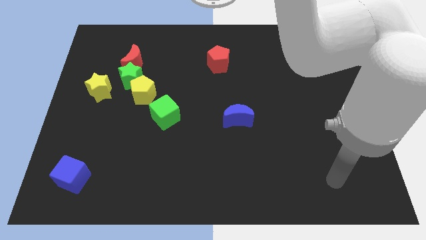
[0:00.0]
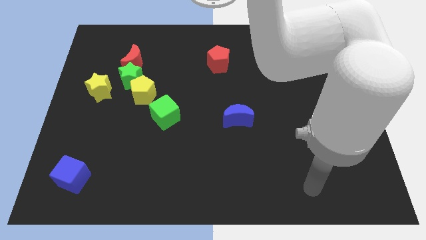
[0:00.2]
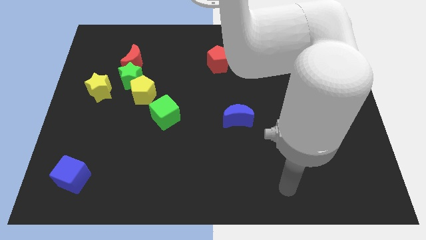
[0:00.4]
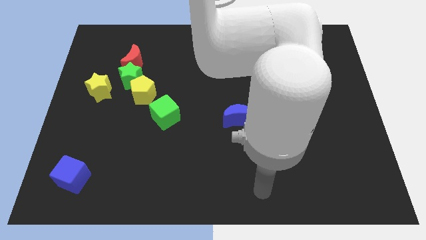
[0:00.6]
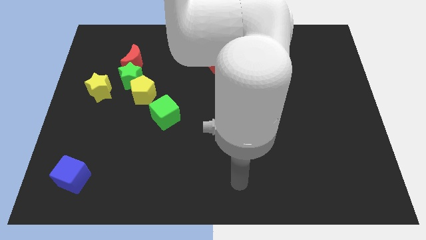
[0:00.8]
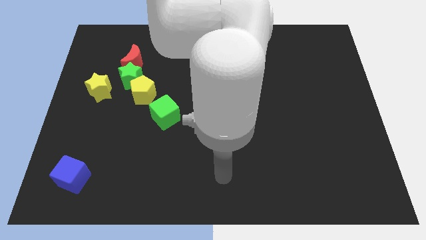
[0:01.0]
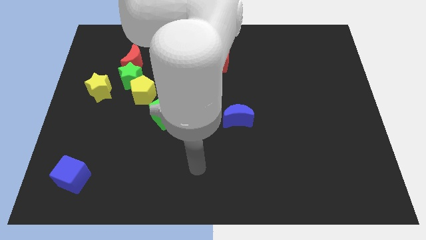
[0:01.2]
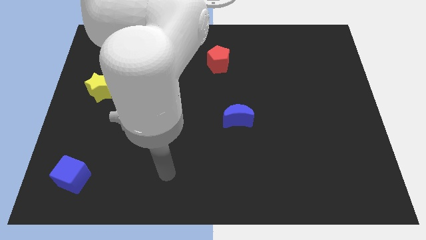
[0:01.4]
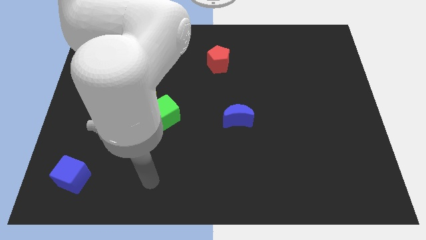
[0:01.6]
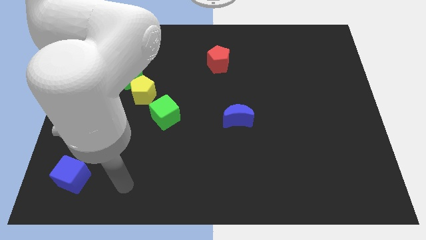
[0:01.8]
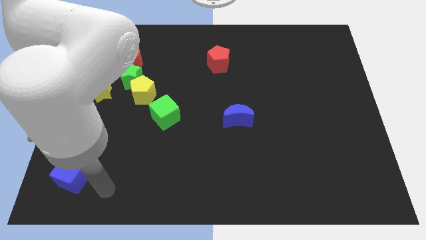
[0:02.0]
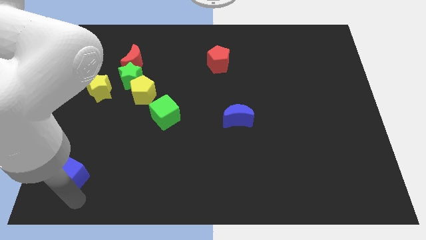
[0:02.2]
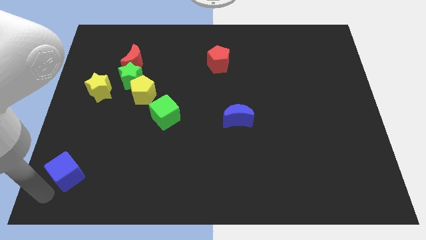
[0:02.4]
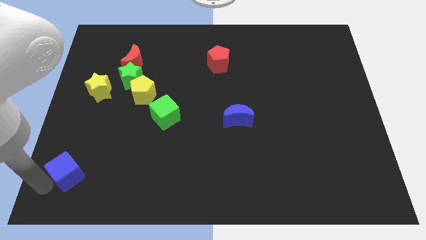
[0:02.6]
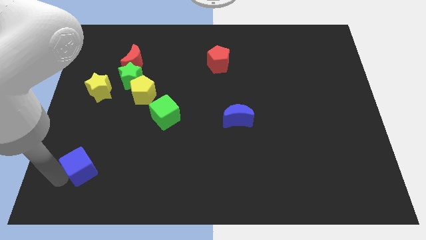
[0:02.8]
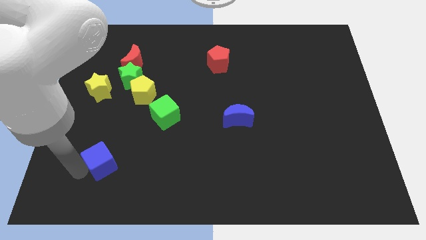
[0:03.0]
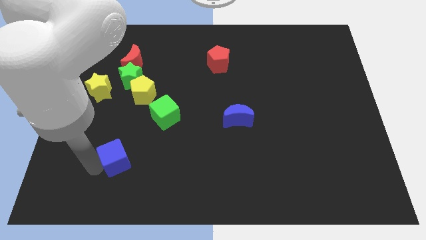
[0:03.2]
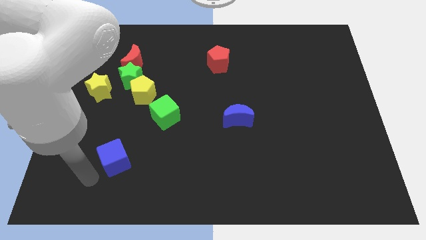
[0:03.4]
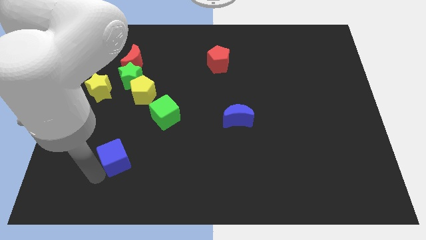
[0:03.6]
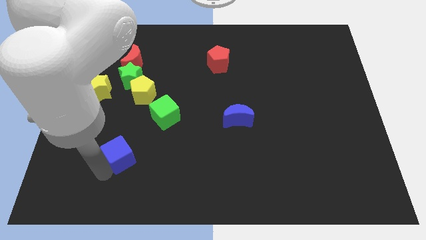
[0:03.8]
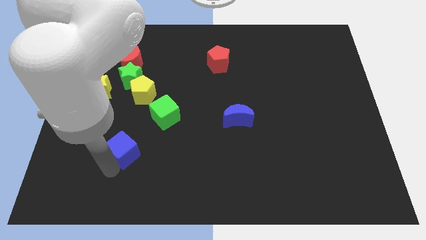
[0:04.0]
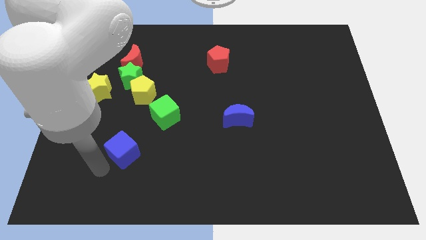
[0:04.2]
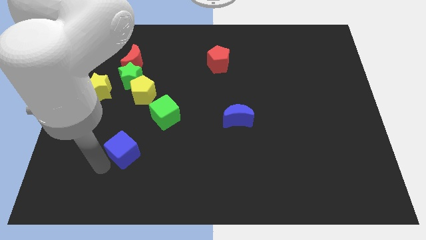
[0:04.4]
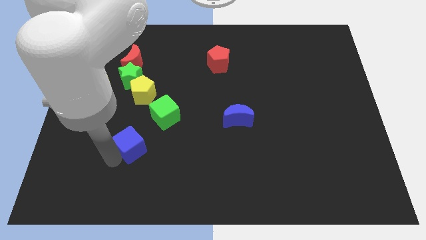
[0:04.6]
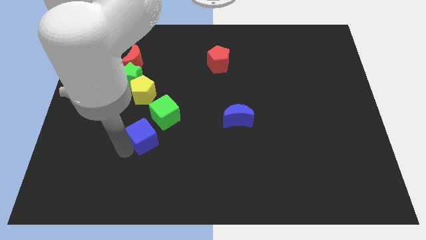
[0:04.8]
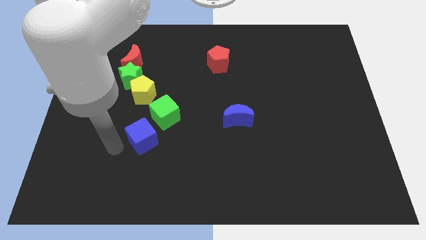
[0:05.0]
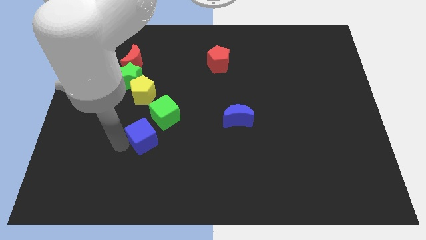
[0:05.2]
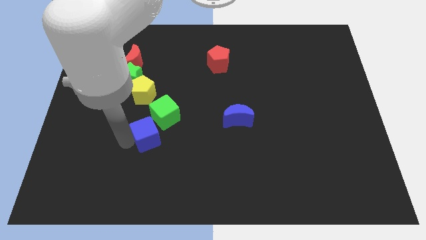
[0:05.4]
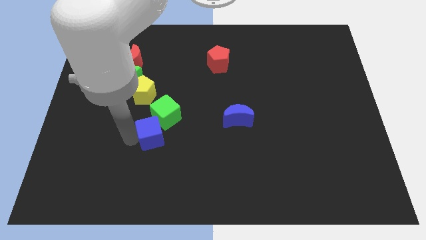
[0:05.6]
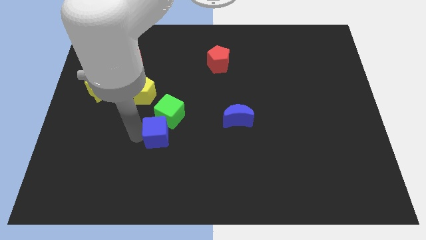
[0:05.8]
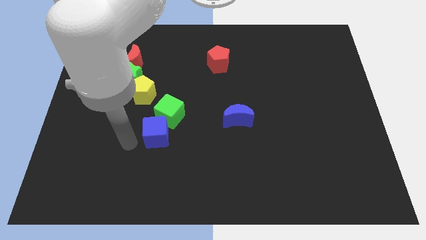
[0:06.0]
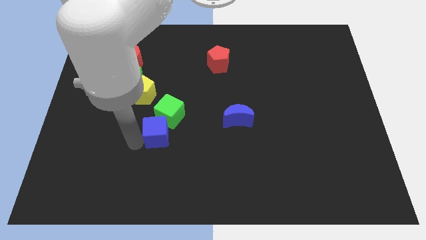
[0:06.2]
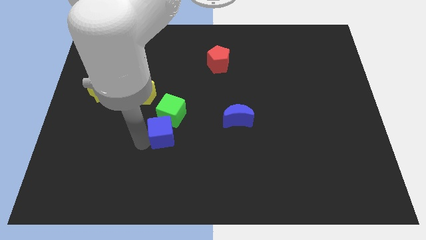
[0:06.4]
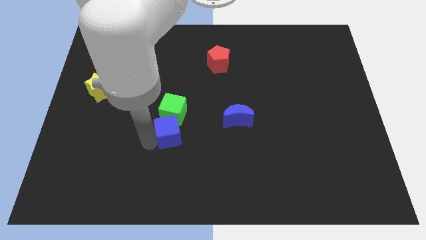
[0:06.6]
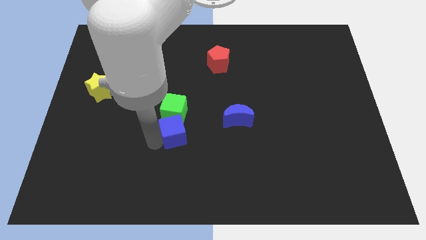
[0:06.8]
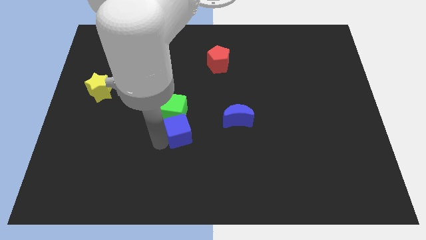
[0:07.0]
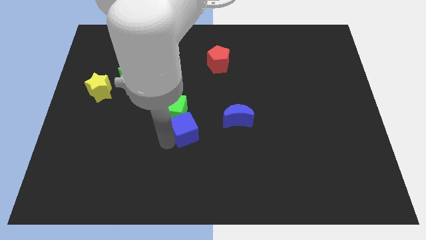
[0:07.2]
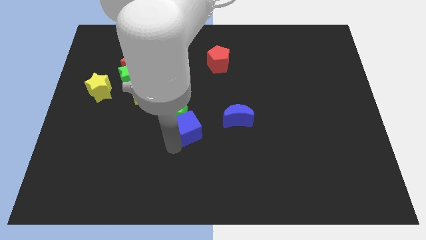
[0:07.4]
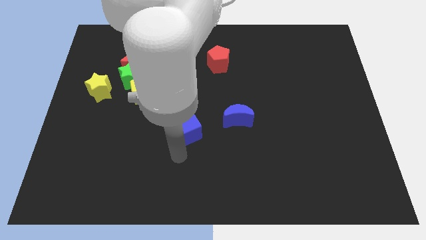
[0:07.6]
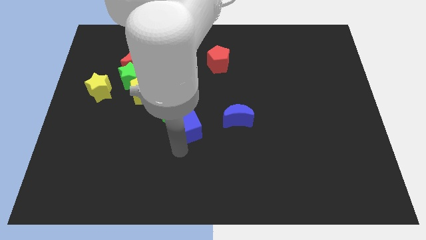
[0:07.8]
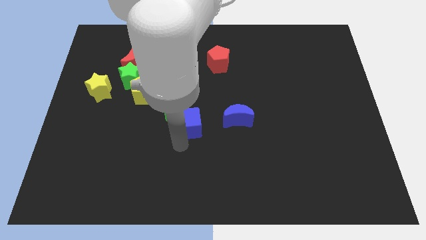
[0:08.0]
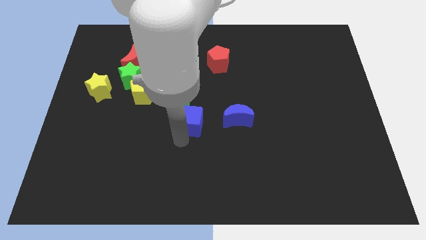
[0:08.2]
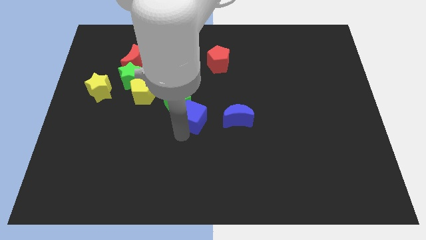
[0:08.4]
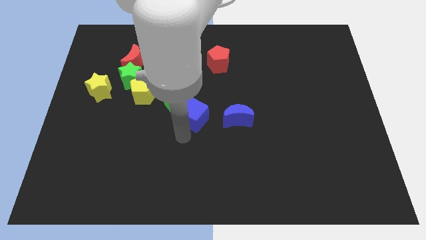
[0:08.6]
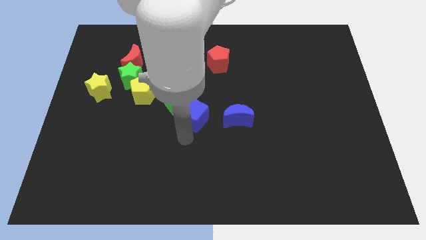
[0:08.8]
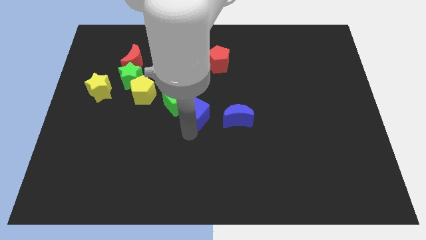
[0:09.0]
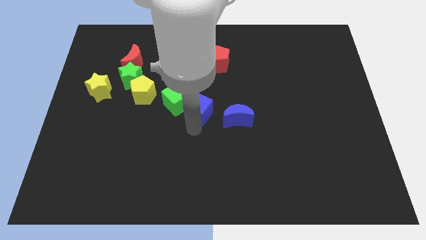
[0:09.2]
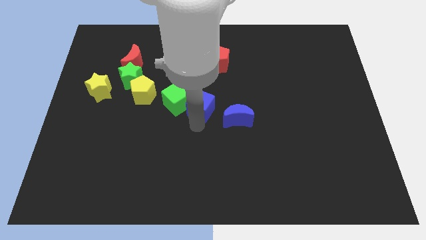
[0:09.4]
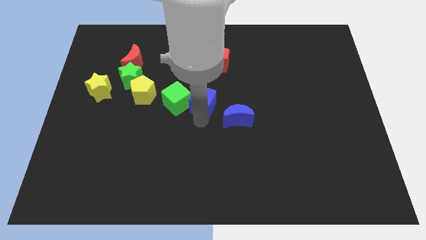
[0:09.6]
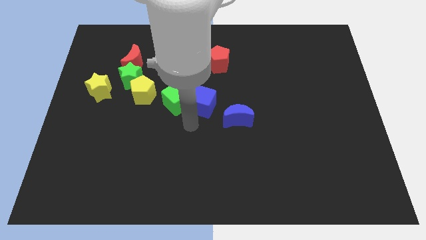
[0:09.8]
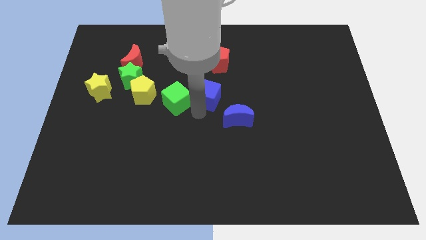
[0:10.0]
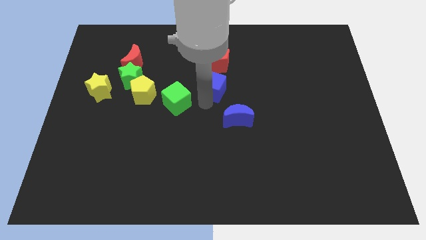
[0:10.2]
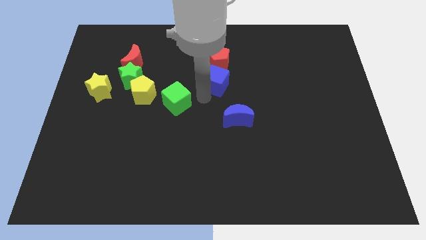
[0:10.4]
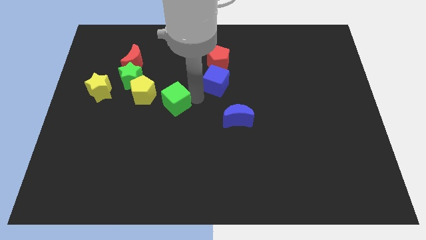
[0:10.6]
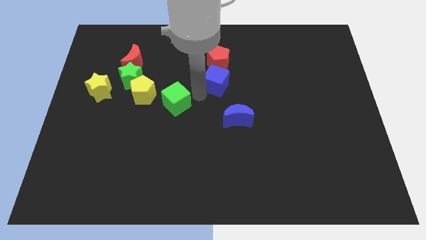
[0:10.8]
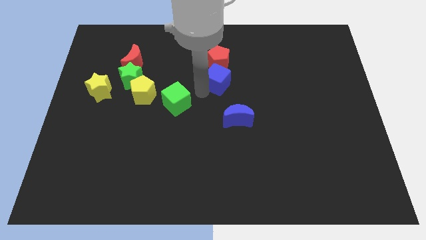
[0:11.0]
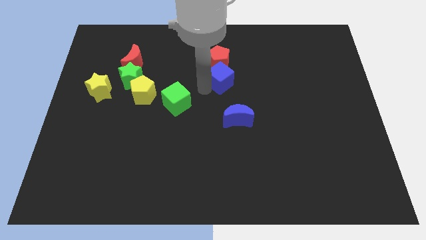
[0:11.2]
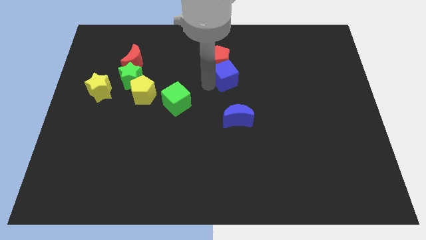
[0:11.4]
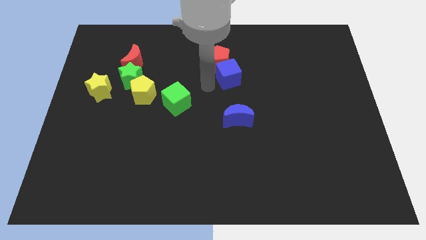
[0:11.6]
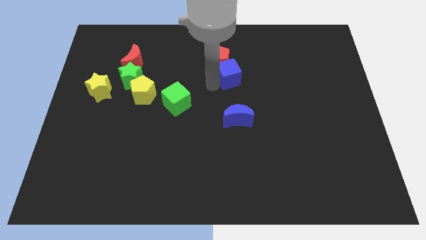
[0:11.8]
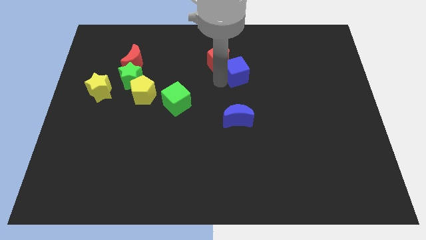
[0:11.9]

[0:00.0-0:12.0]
push the blue cube to the right side of the red pentagon

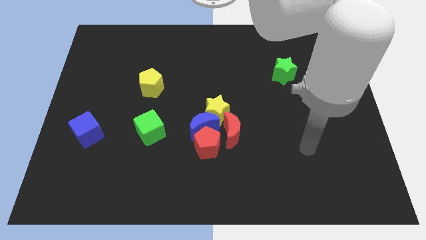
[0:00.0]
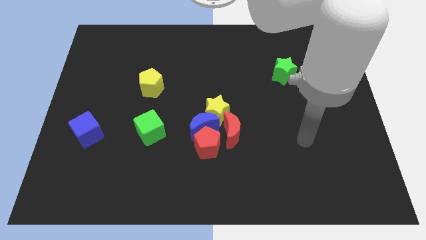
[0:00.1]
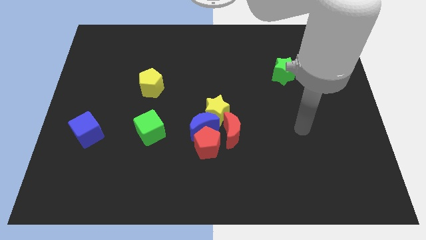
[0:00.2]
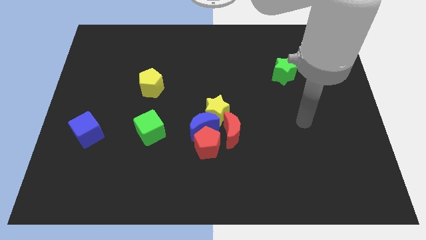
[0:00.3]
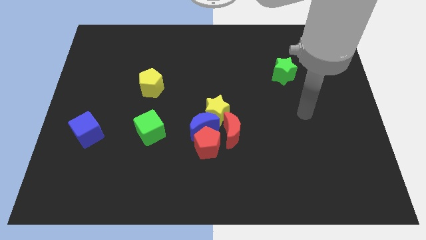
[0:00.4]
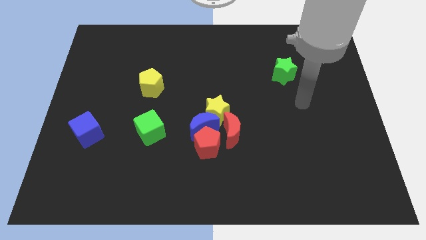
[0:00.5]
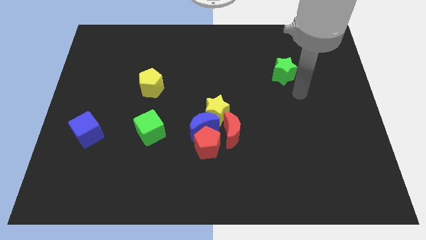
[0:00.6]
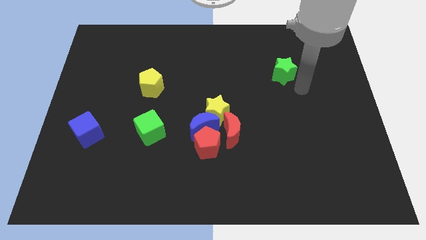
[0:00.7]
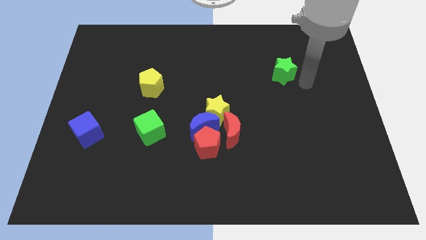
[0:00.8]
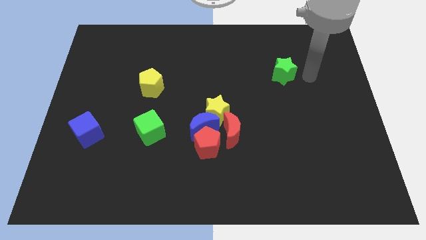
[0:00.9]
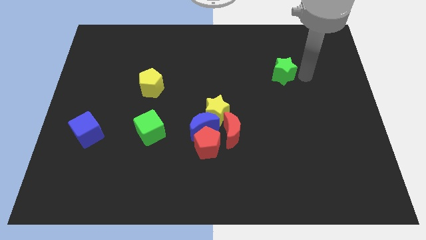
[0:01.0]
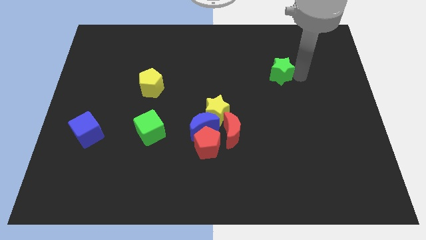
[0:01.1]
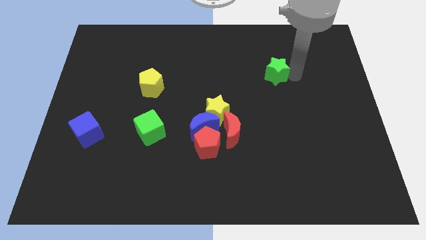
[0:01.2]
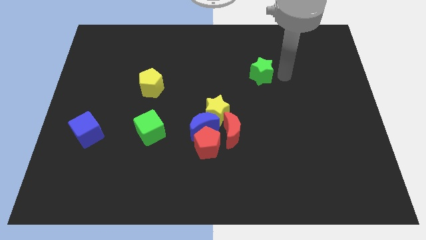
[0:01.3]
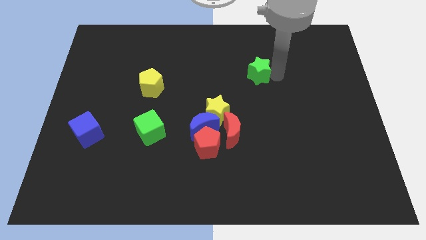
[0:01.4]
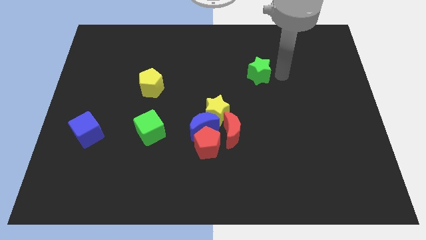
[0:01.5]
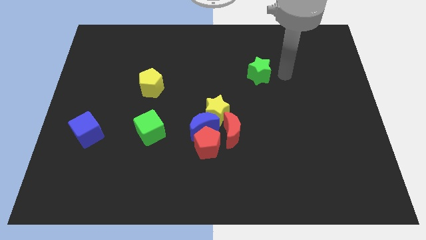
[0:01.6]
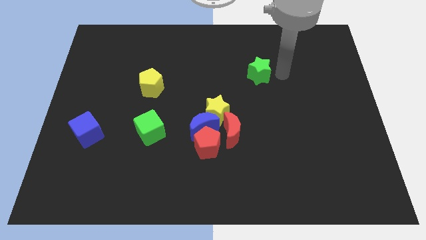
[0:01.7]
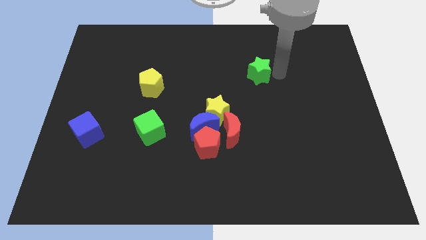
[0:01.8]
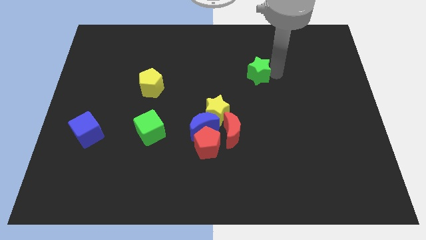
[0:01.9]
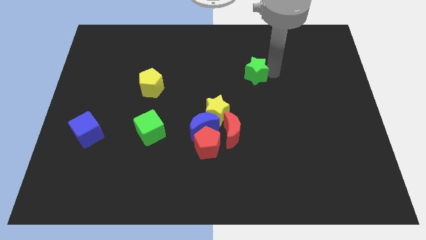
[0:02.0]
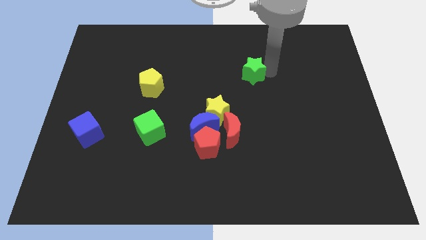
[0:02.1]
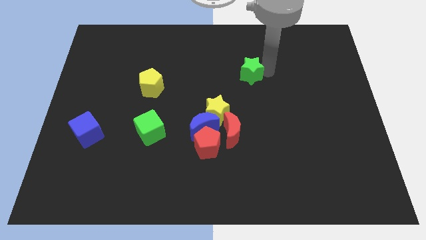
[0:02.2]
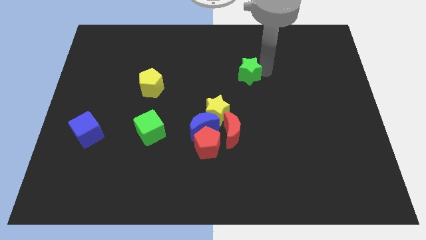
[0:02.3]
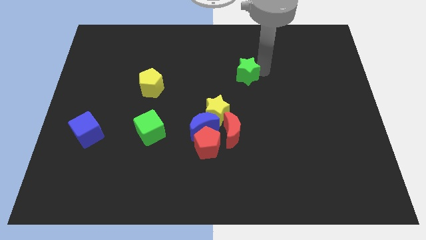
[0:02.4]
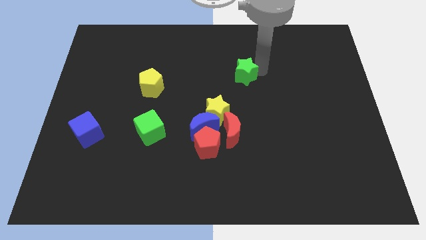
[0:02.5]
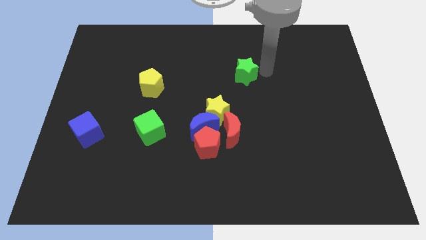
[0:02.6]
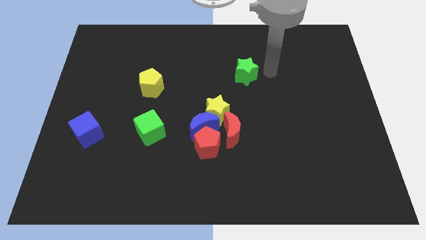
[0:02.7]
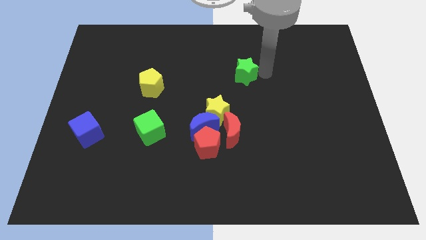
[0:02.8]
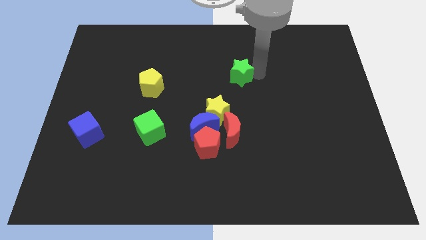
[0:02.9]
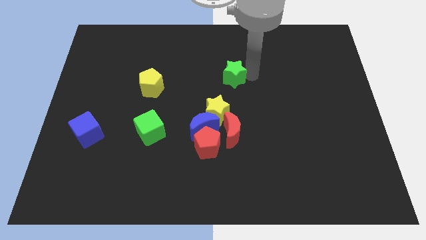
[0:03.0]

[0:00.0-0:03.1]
push the green star to the top side of the yellow star
